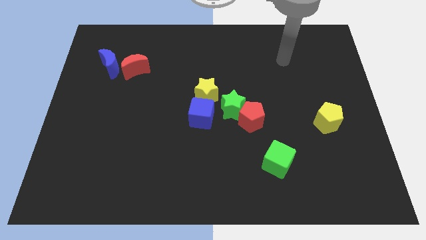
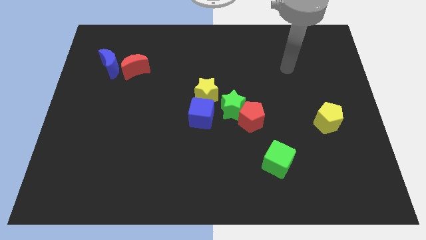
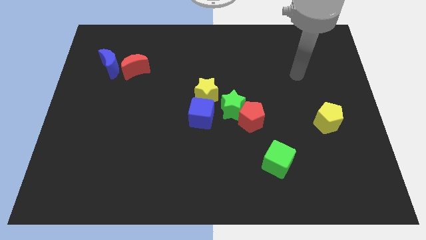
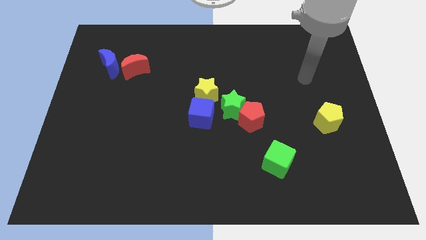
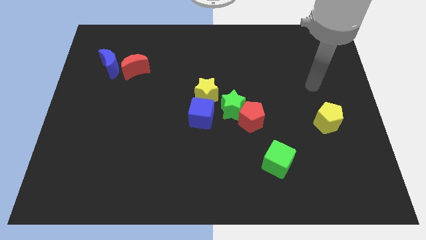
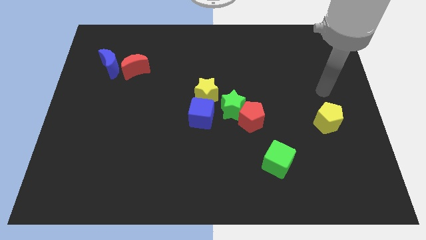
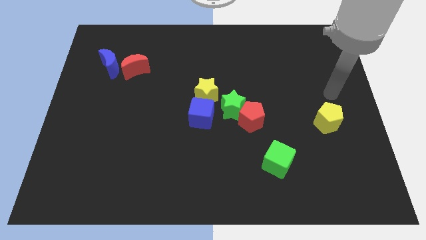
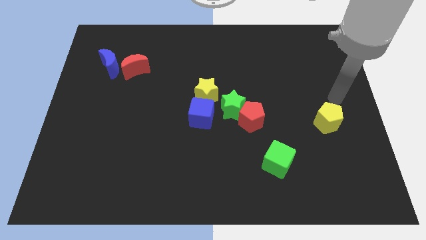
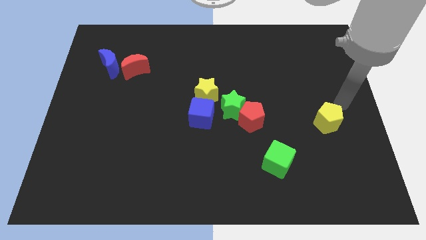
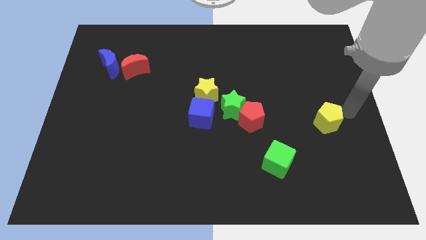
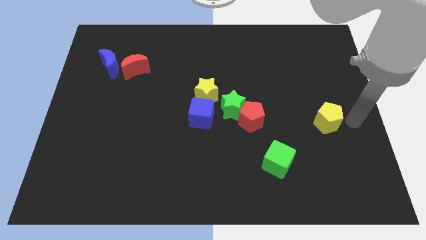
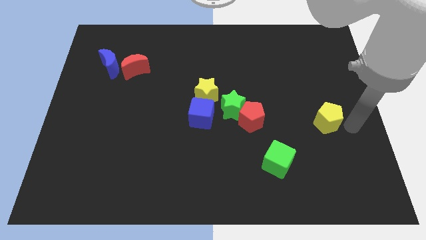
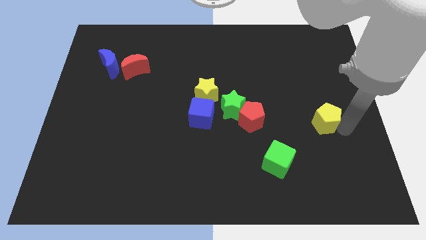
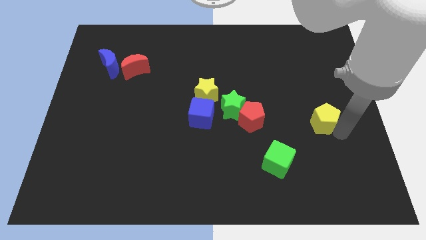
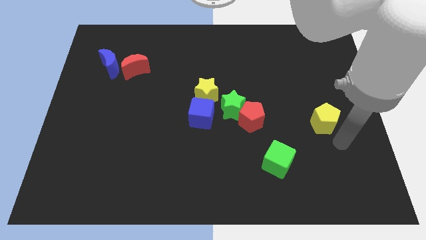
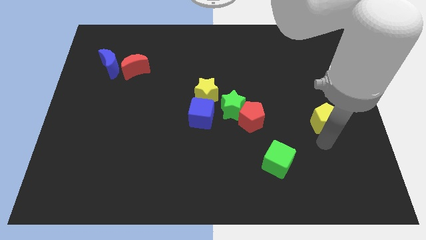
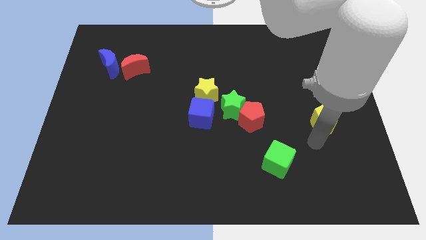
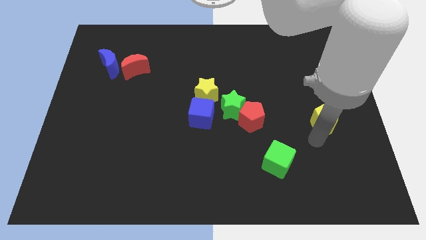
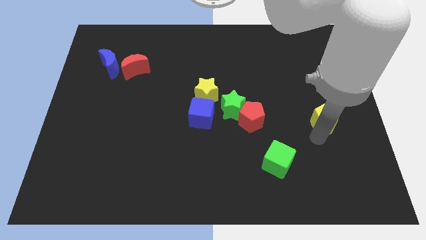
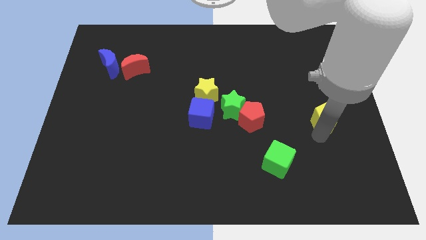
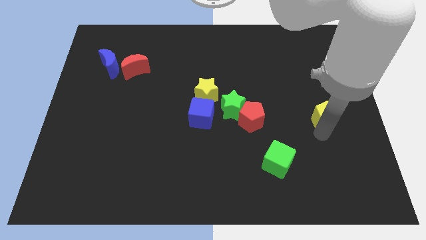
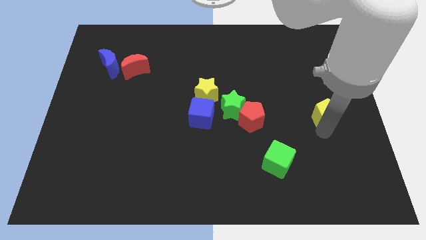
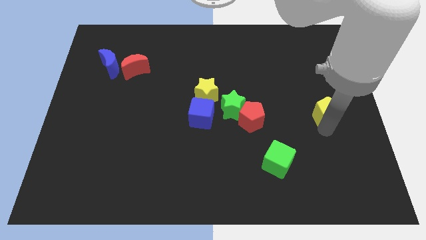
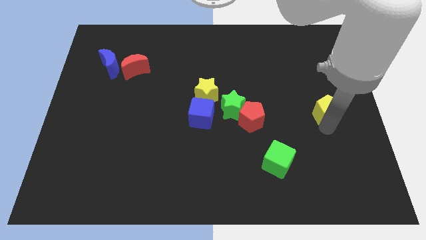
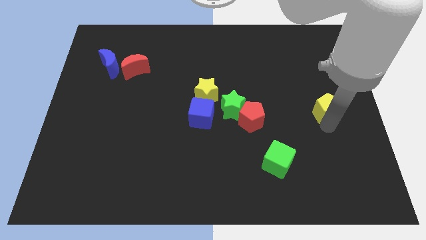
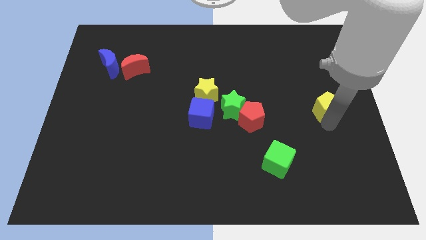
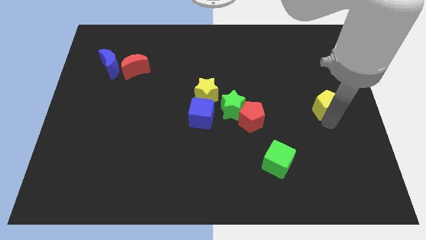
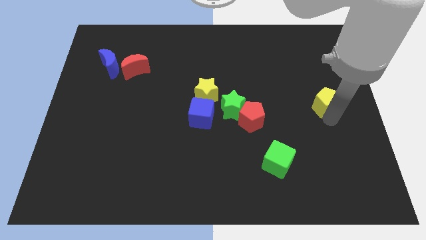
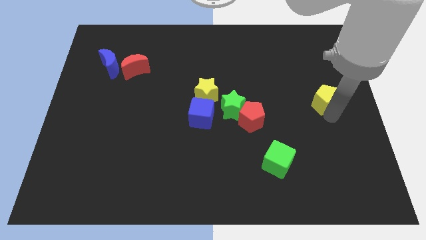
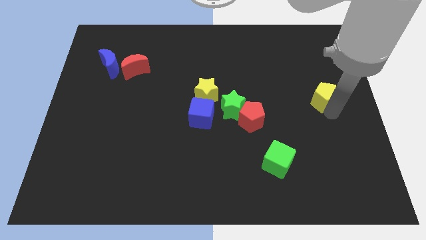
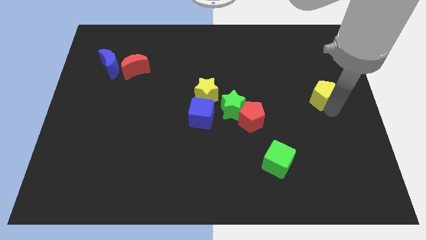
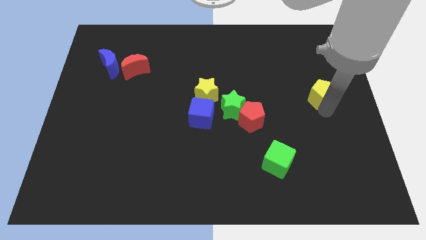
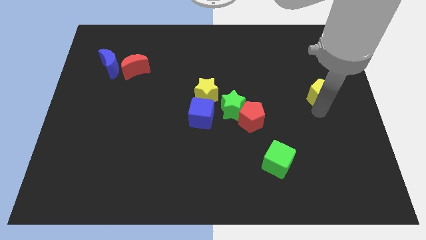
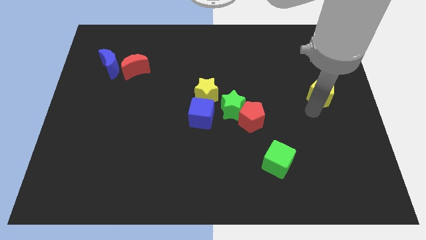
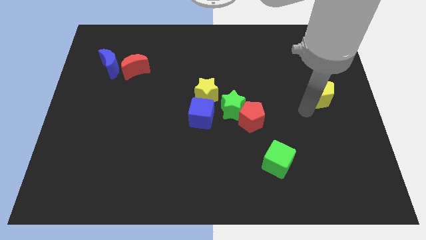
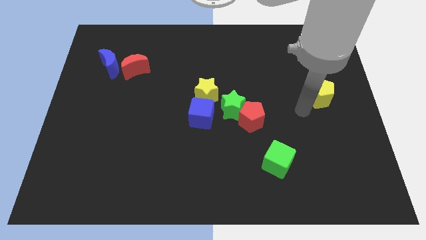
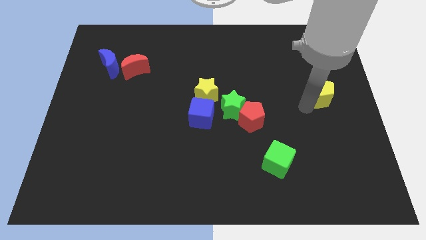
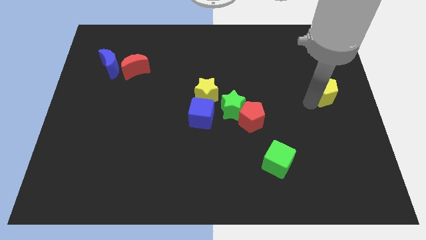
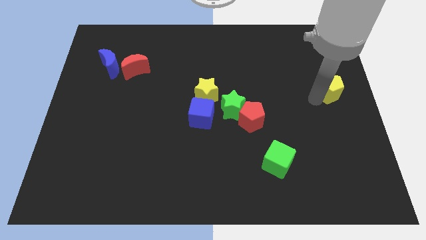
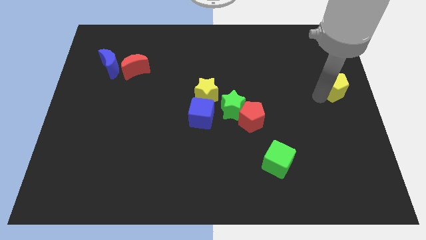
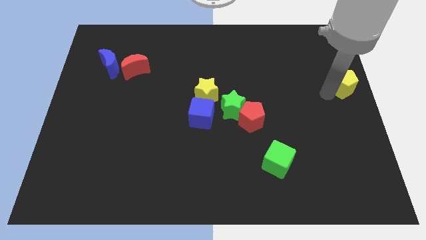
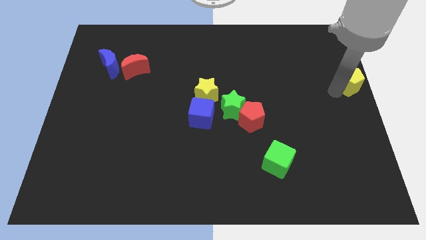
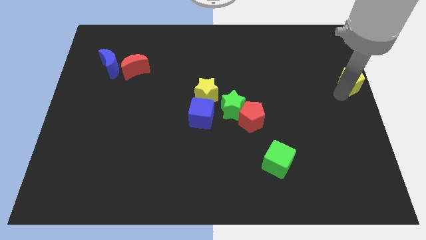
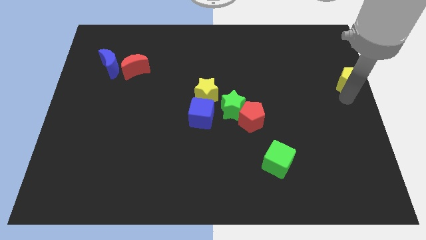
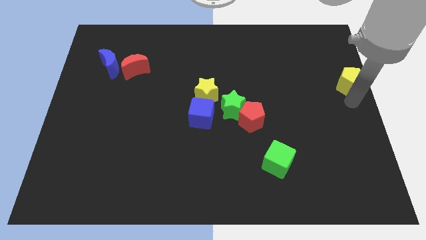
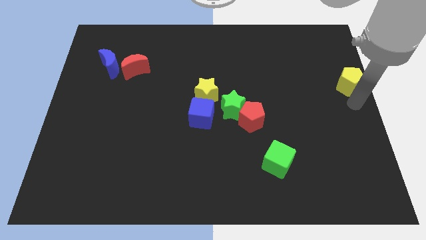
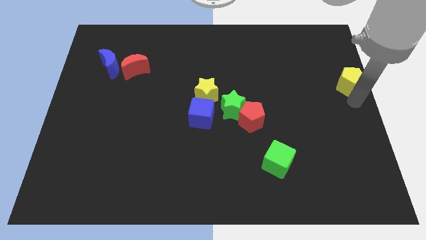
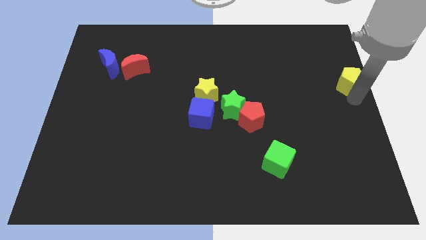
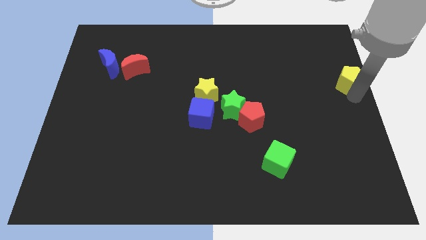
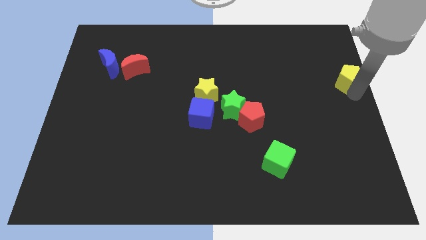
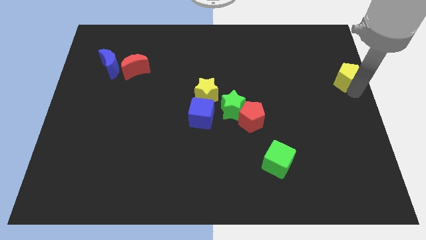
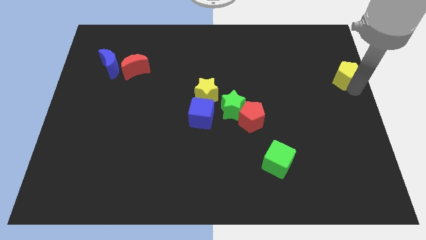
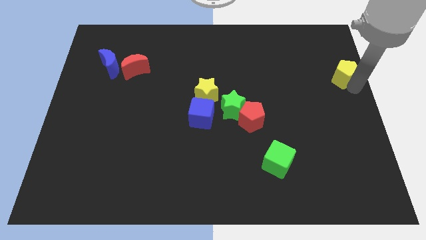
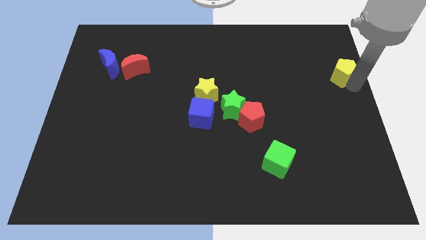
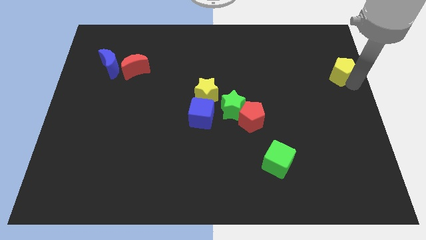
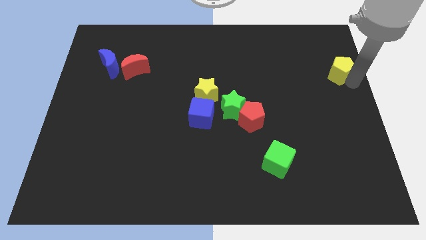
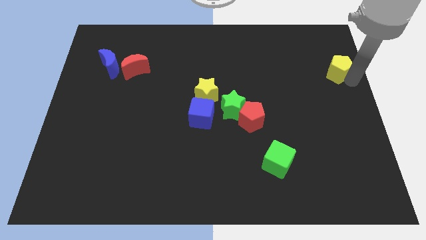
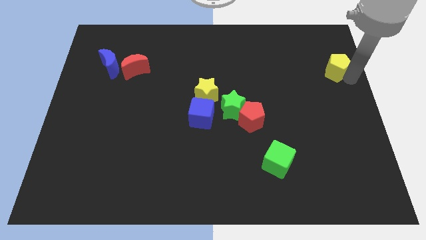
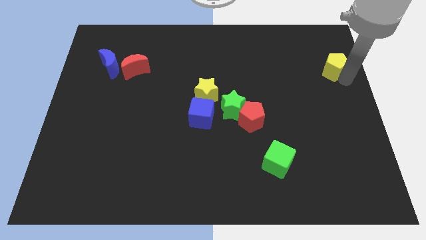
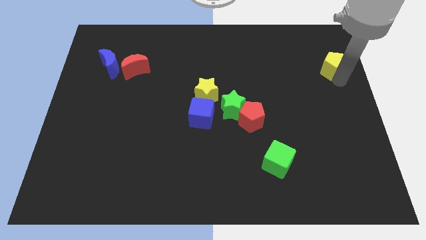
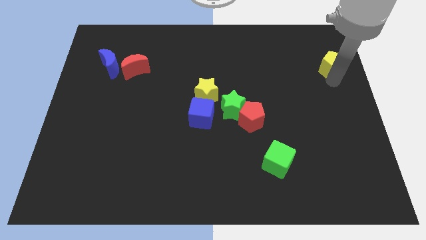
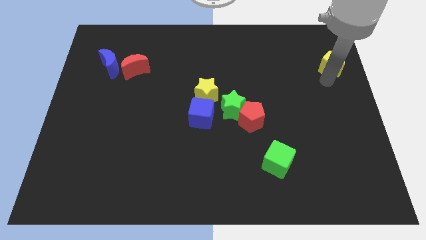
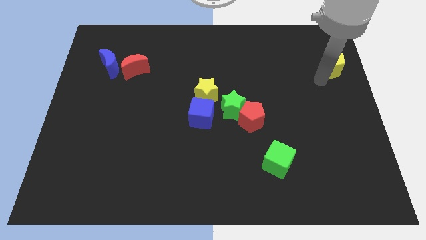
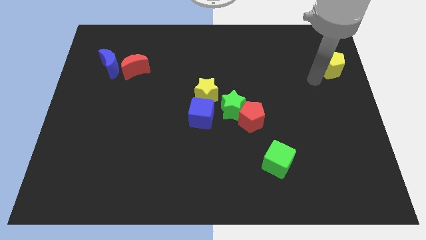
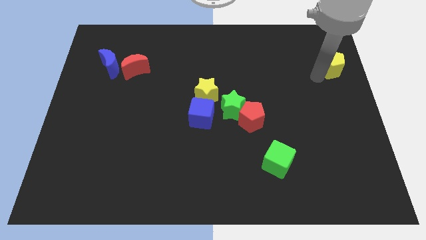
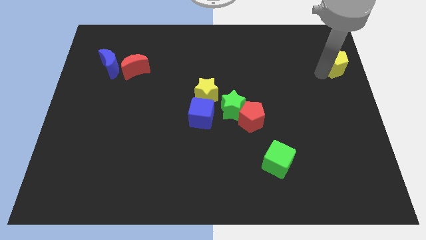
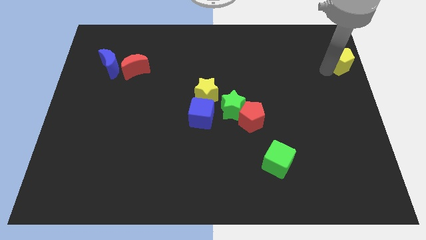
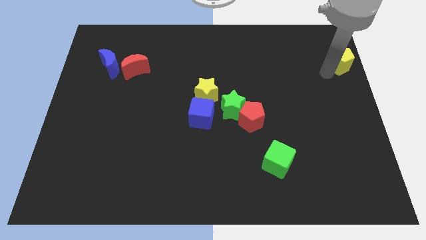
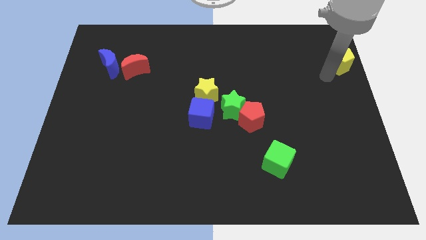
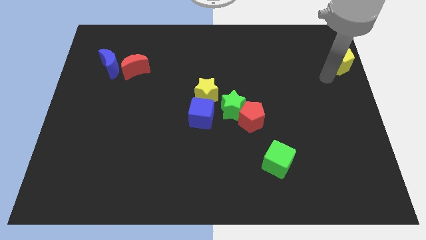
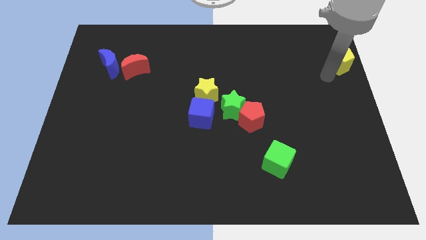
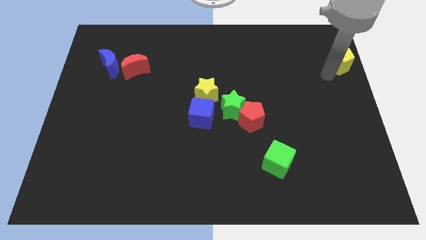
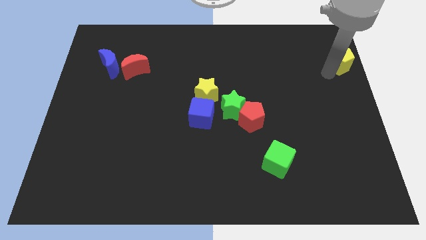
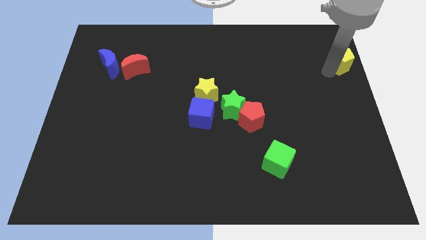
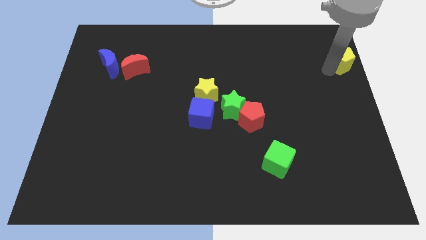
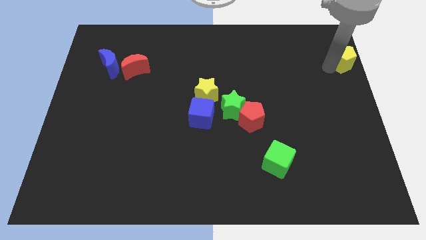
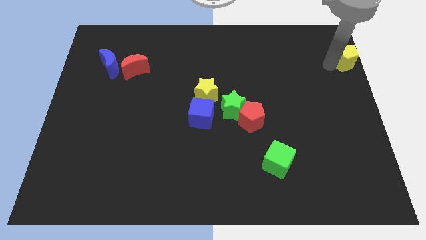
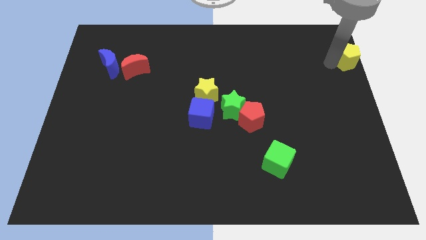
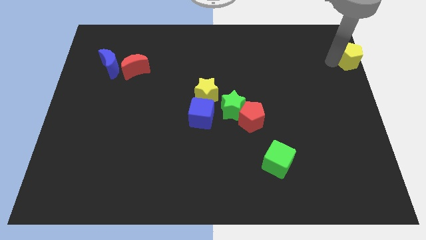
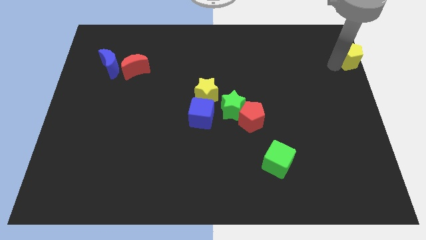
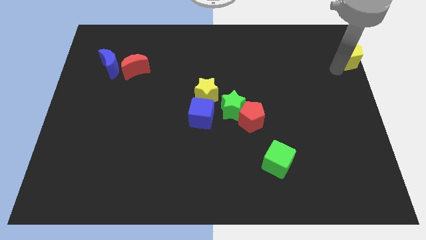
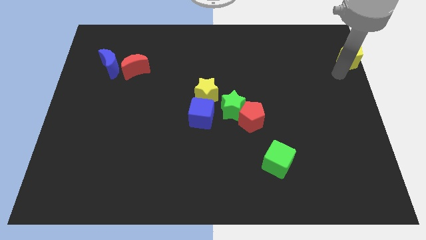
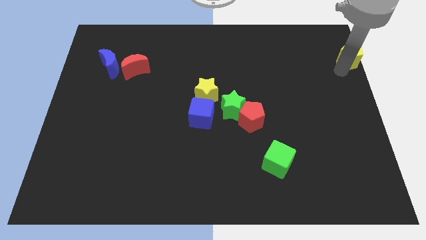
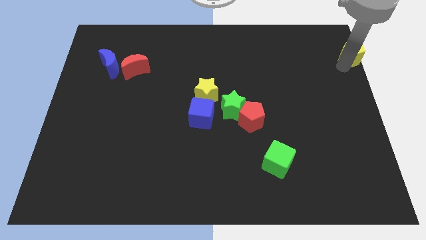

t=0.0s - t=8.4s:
move the yellow pentagon to the top right corner
